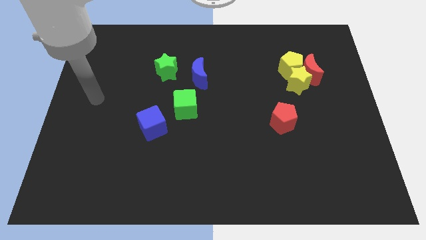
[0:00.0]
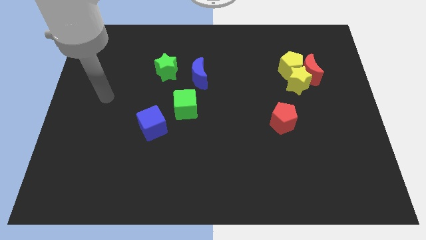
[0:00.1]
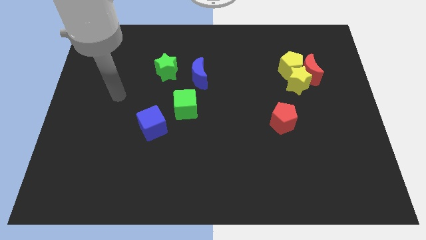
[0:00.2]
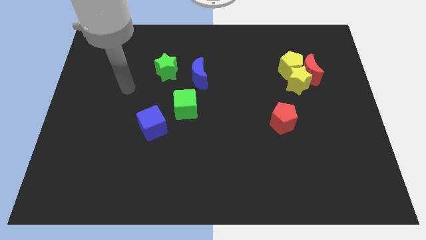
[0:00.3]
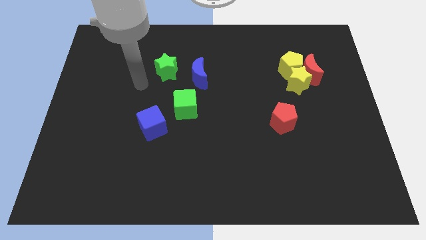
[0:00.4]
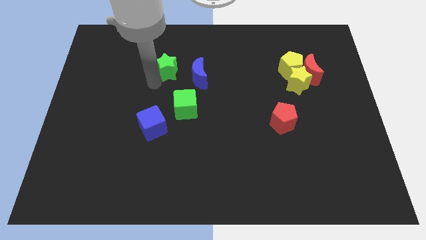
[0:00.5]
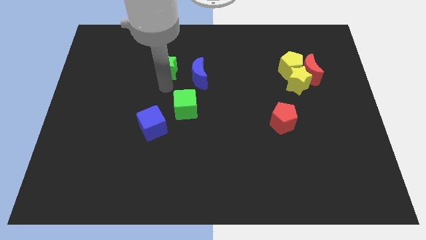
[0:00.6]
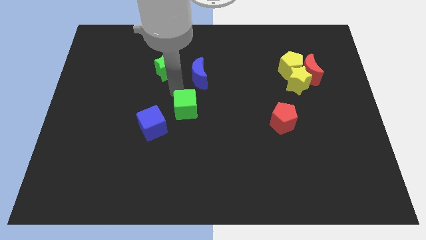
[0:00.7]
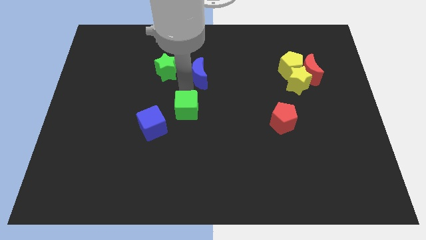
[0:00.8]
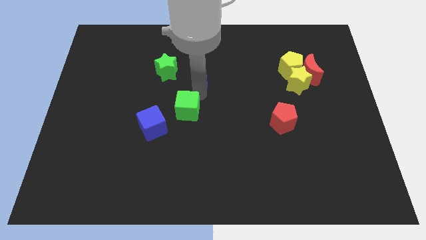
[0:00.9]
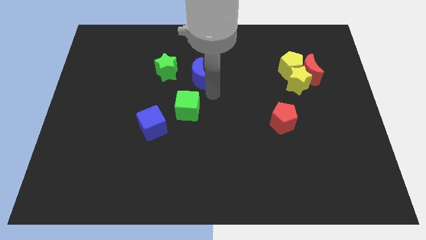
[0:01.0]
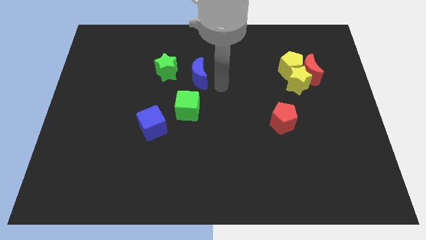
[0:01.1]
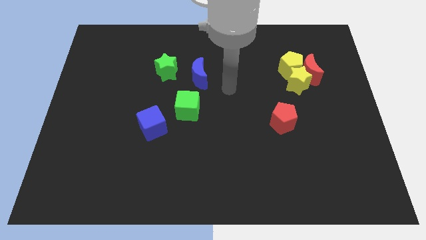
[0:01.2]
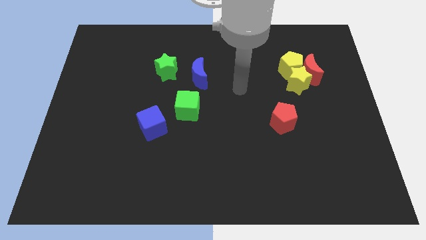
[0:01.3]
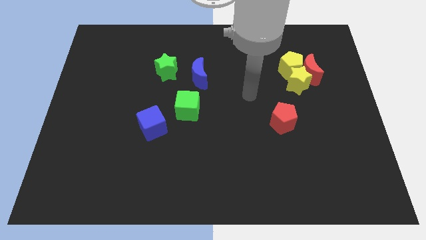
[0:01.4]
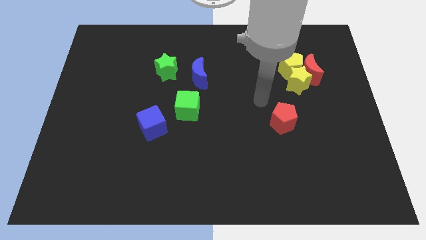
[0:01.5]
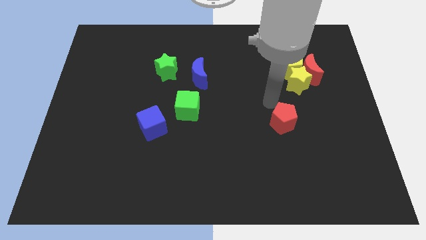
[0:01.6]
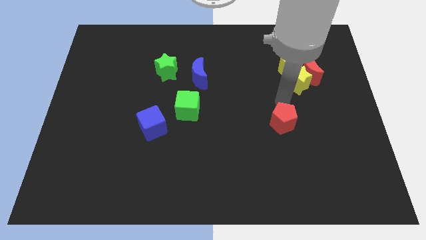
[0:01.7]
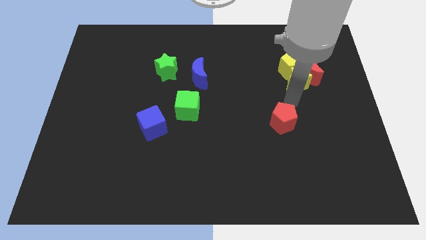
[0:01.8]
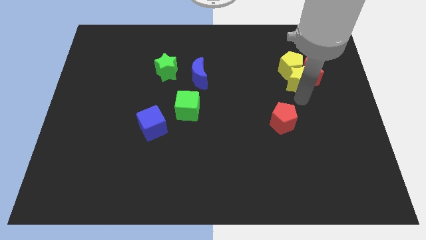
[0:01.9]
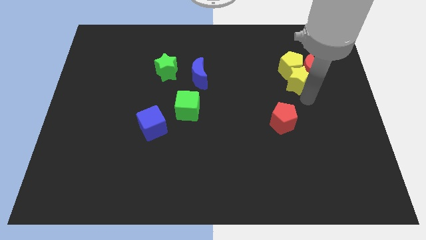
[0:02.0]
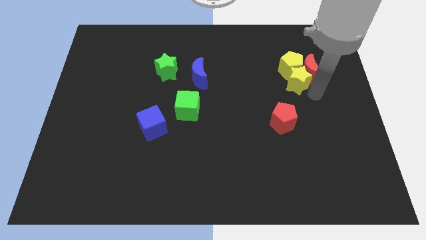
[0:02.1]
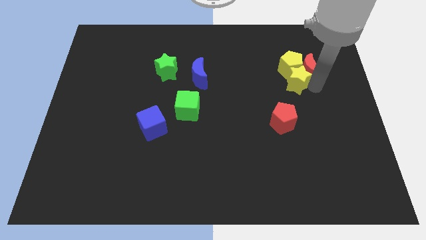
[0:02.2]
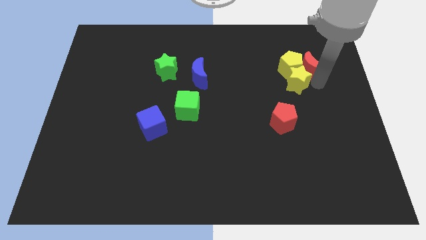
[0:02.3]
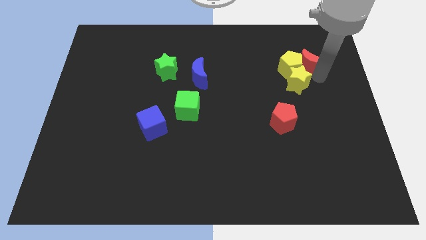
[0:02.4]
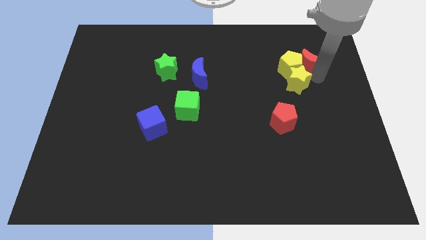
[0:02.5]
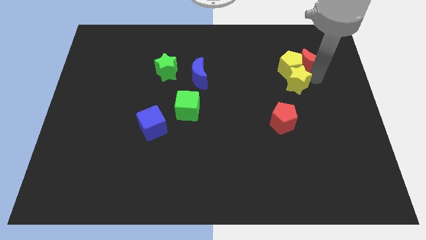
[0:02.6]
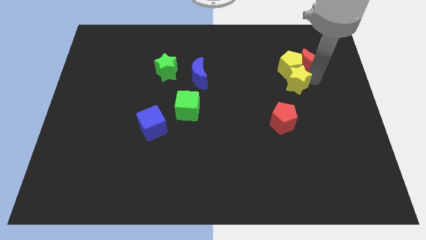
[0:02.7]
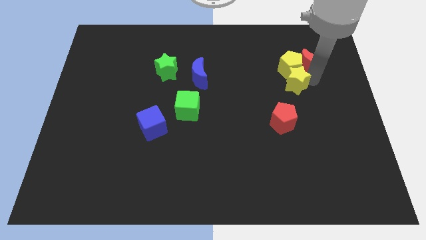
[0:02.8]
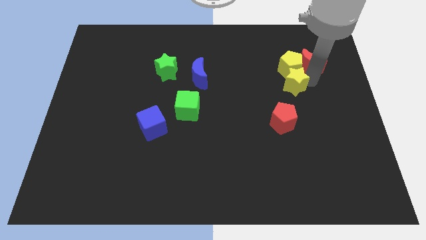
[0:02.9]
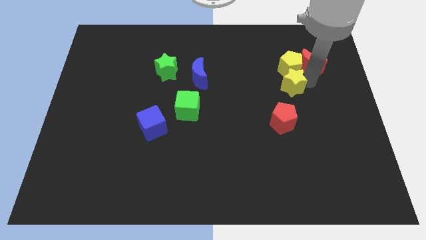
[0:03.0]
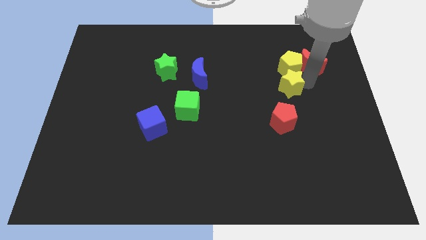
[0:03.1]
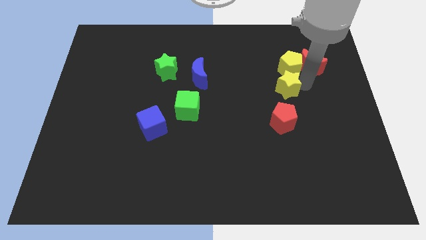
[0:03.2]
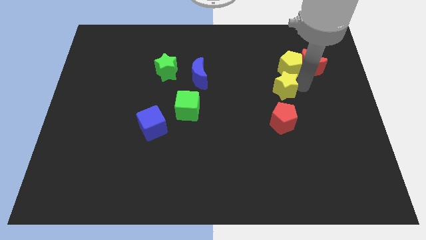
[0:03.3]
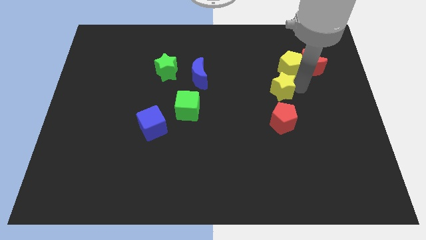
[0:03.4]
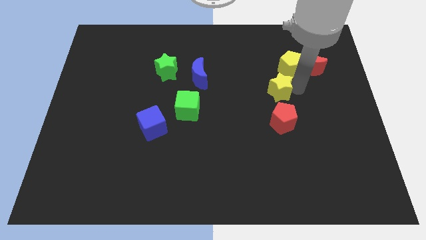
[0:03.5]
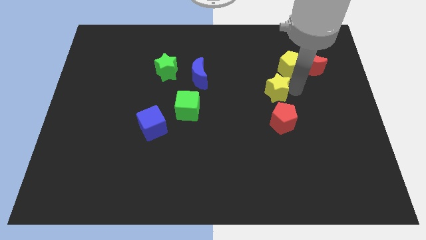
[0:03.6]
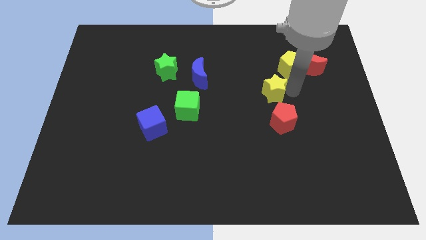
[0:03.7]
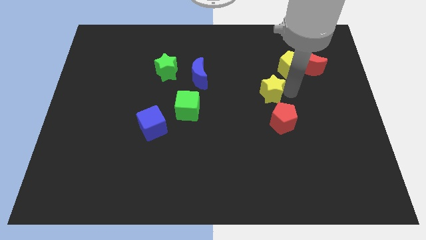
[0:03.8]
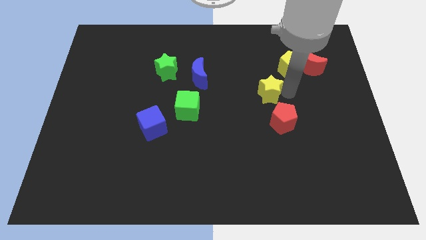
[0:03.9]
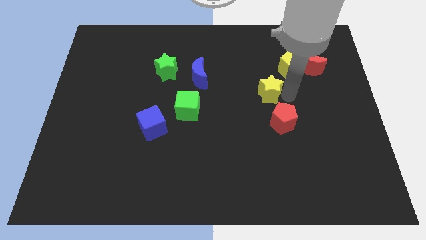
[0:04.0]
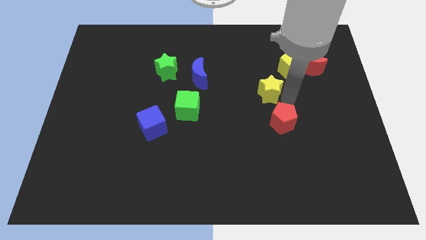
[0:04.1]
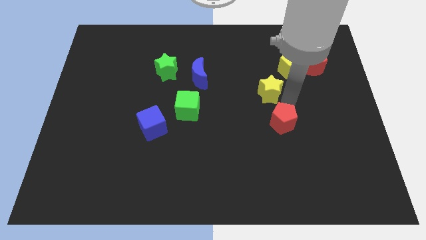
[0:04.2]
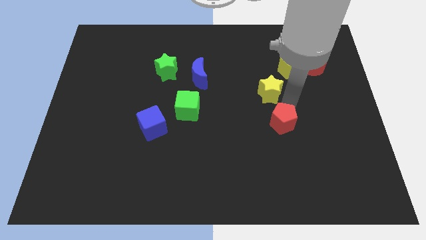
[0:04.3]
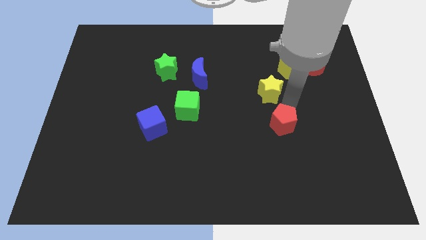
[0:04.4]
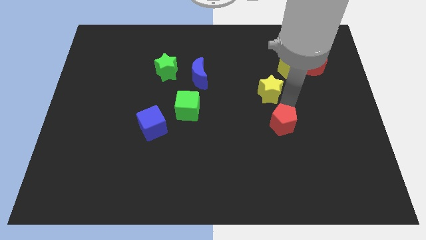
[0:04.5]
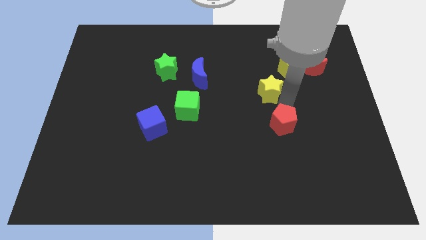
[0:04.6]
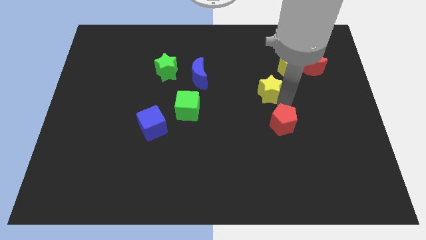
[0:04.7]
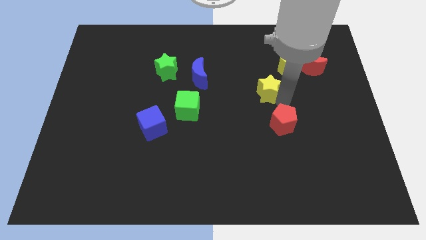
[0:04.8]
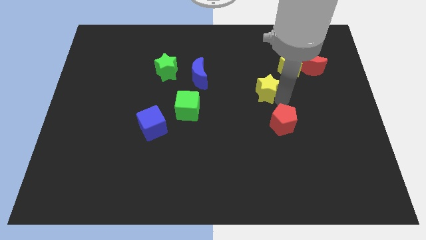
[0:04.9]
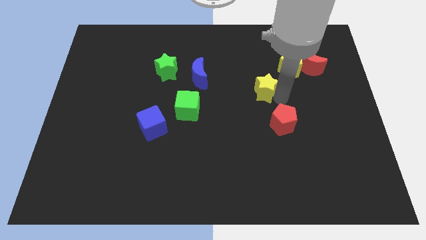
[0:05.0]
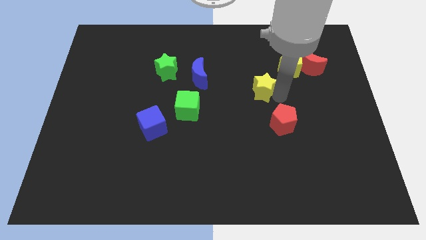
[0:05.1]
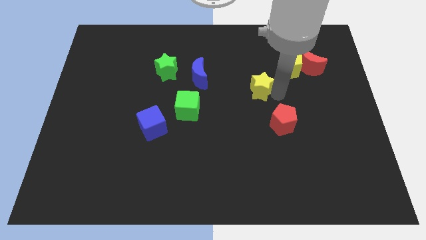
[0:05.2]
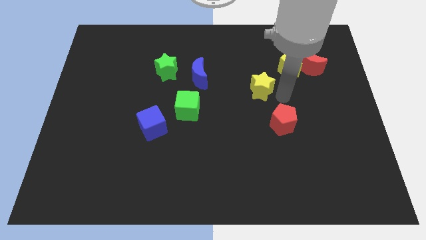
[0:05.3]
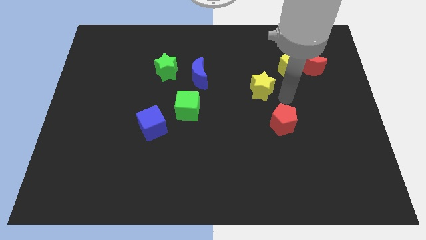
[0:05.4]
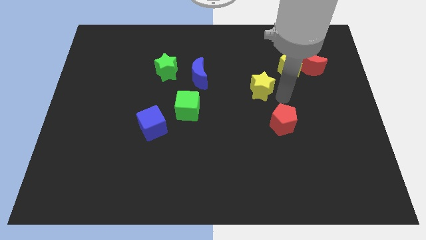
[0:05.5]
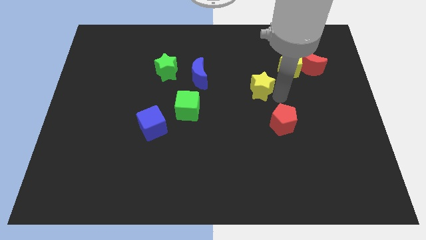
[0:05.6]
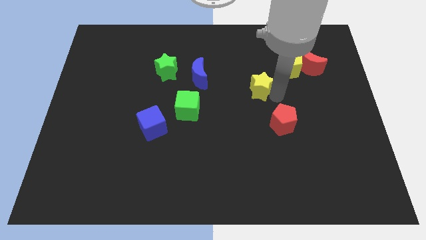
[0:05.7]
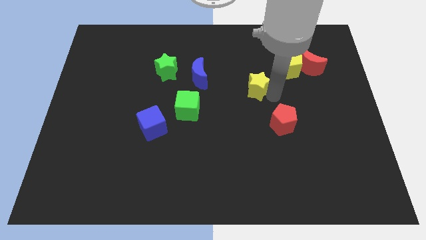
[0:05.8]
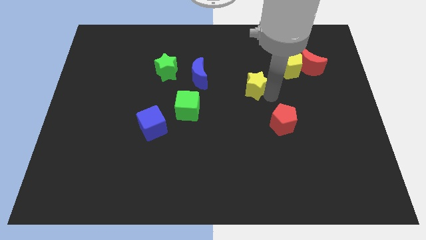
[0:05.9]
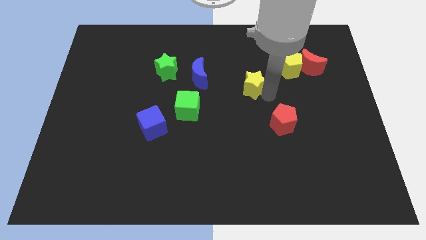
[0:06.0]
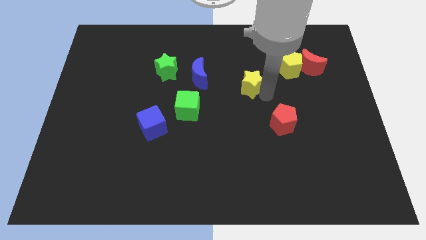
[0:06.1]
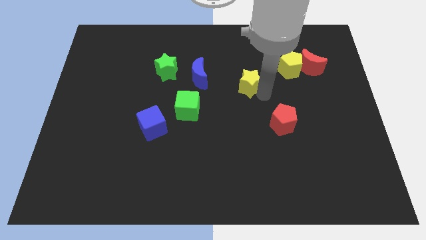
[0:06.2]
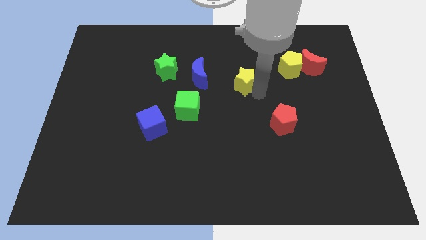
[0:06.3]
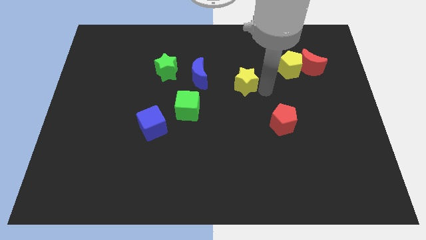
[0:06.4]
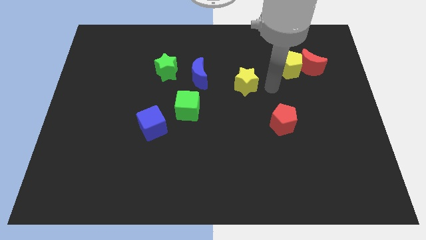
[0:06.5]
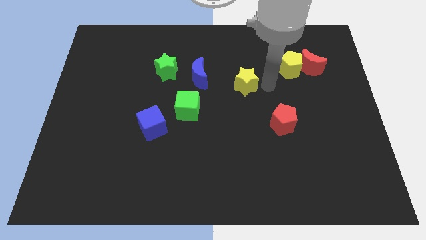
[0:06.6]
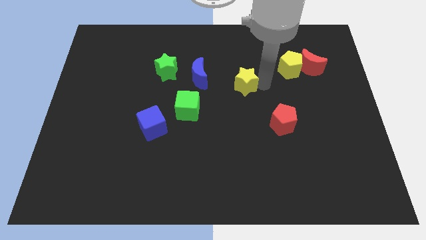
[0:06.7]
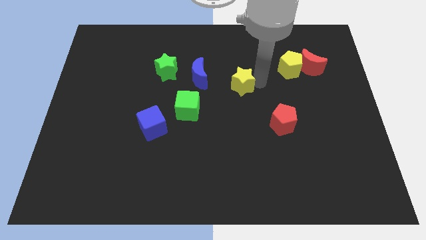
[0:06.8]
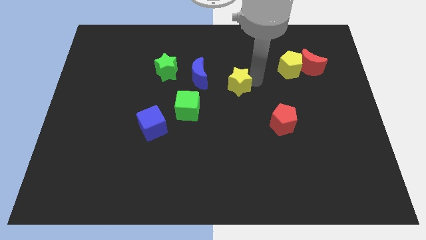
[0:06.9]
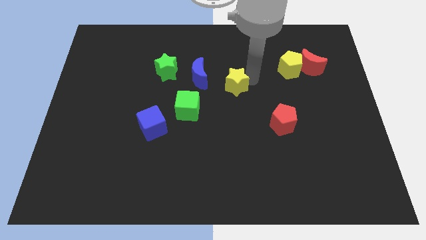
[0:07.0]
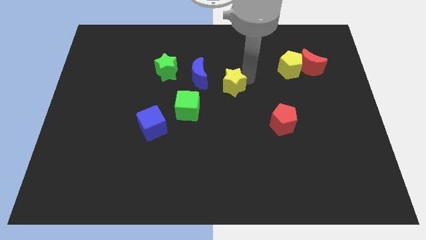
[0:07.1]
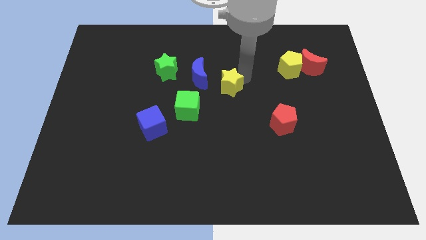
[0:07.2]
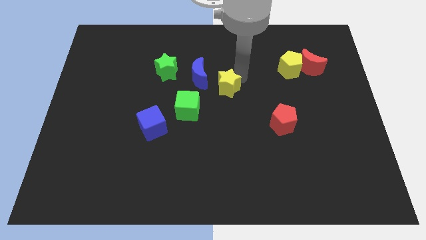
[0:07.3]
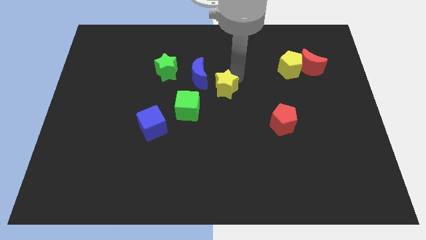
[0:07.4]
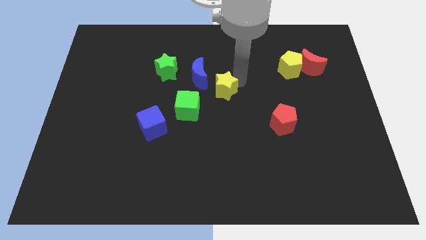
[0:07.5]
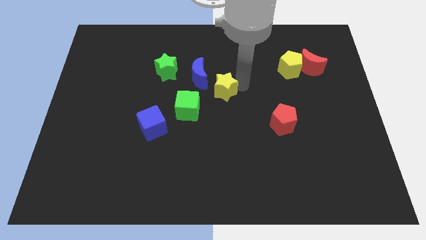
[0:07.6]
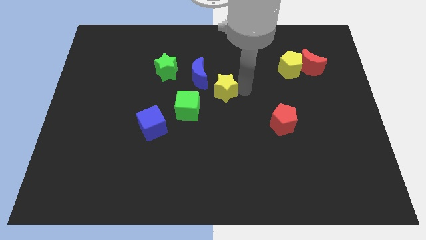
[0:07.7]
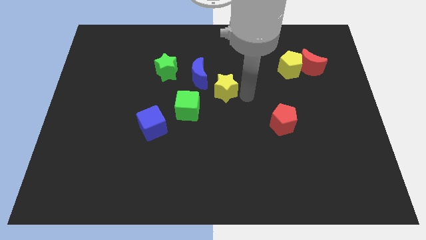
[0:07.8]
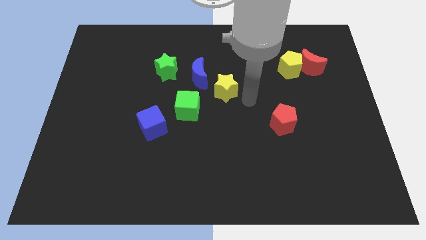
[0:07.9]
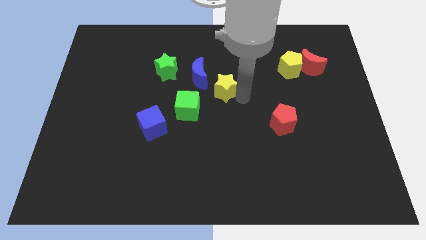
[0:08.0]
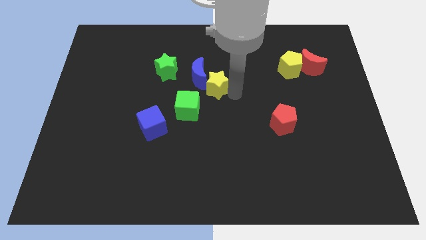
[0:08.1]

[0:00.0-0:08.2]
put the yellow star next to the blue moon
